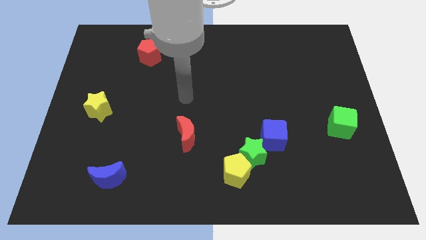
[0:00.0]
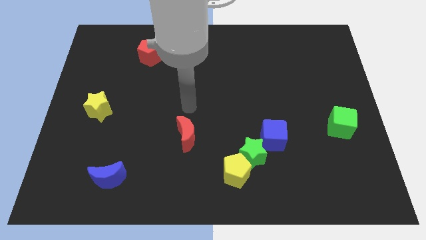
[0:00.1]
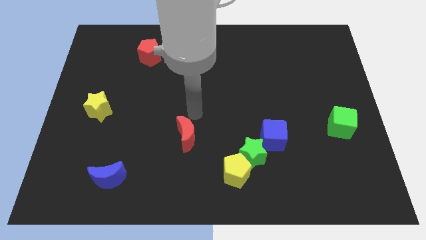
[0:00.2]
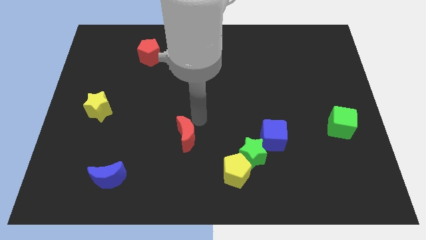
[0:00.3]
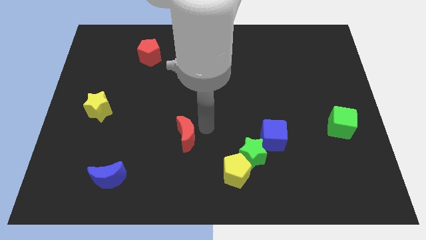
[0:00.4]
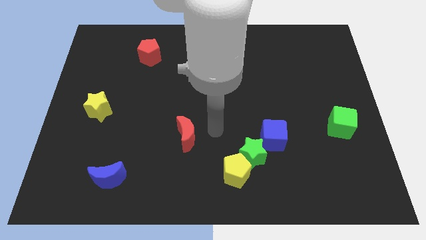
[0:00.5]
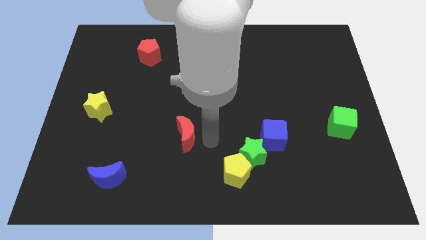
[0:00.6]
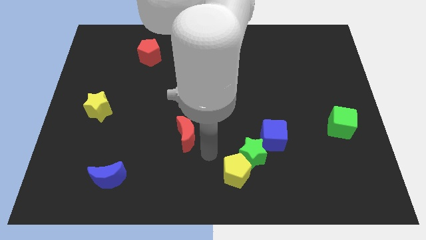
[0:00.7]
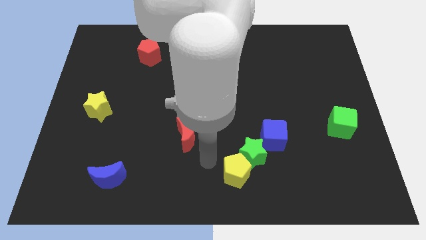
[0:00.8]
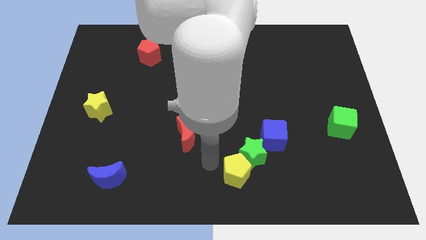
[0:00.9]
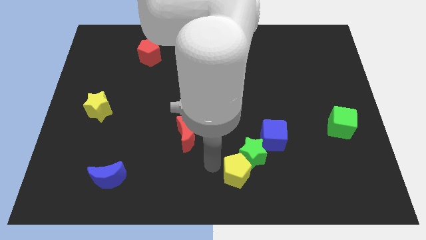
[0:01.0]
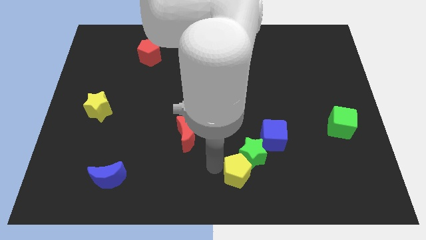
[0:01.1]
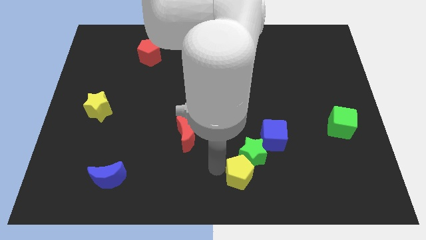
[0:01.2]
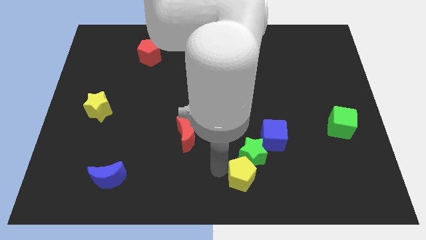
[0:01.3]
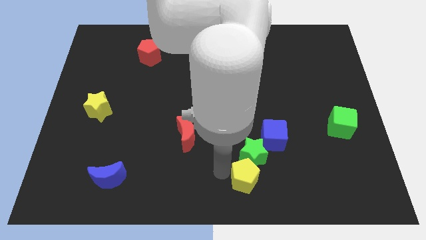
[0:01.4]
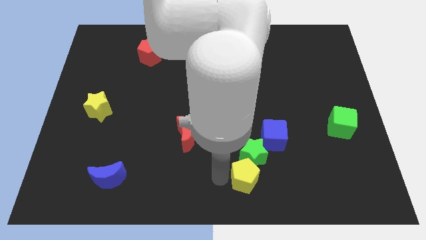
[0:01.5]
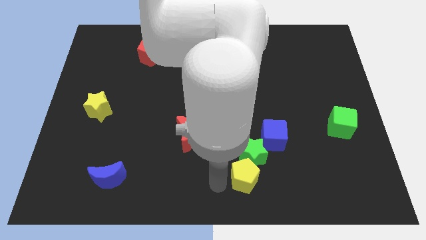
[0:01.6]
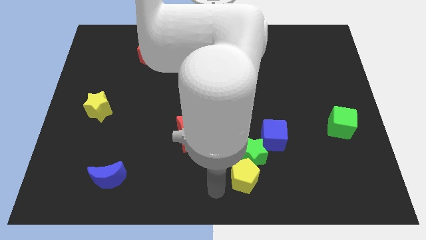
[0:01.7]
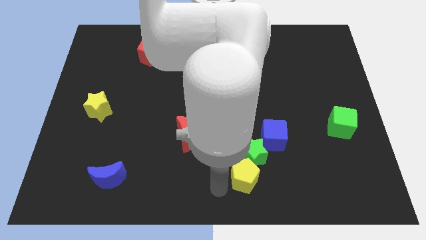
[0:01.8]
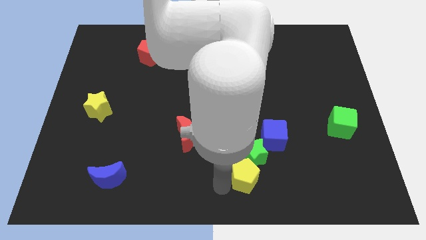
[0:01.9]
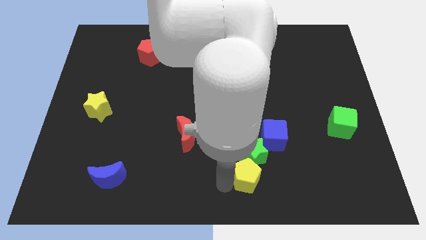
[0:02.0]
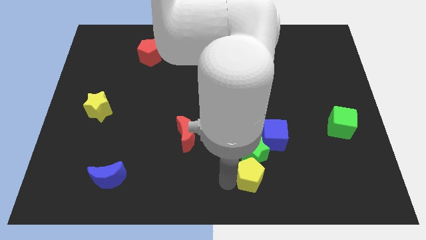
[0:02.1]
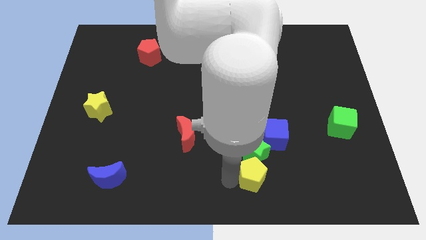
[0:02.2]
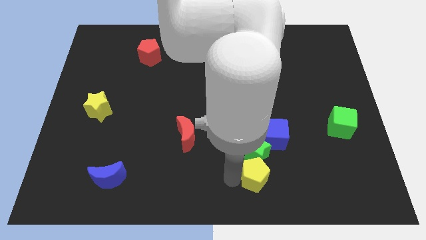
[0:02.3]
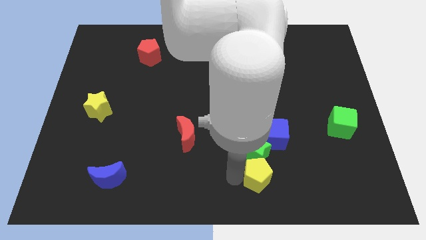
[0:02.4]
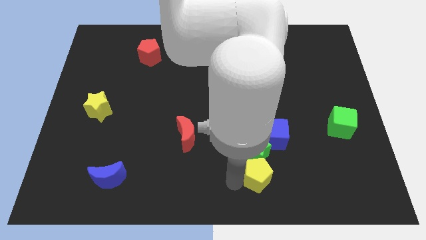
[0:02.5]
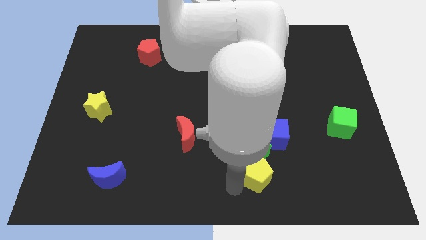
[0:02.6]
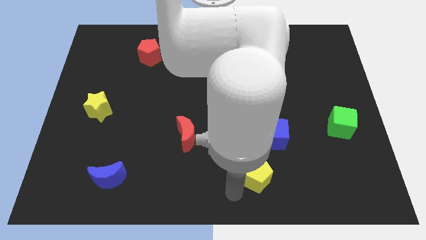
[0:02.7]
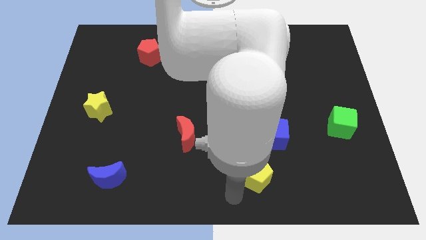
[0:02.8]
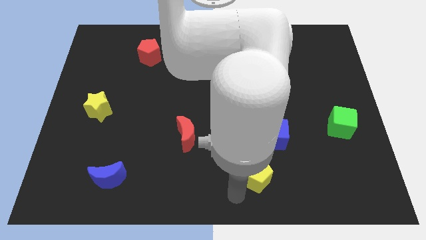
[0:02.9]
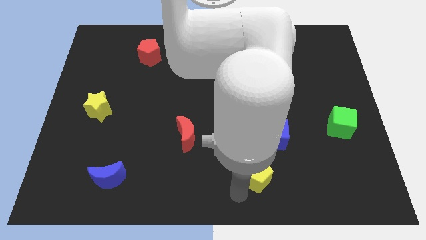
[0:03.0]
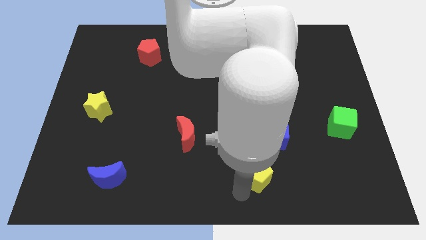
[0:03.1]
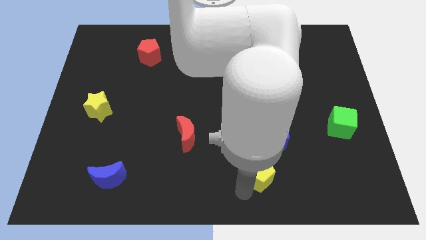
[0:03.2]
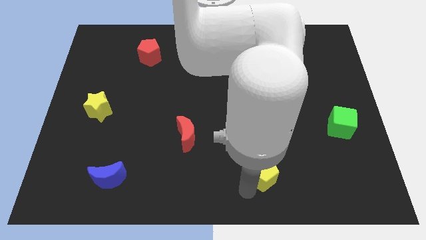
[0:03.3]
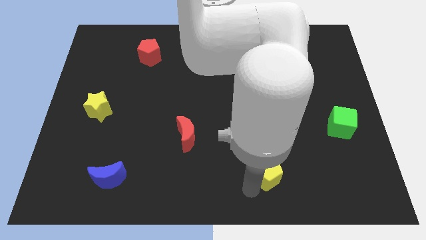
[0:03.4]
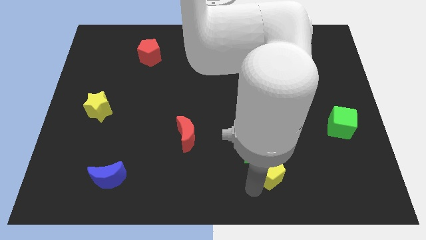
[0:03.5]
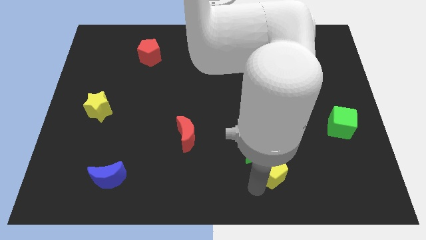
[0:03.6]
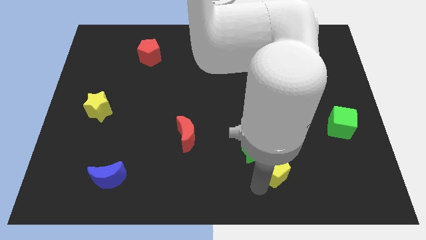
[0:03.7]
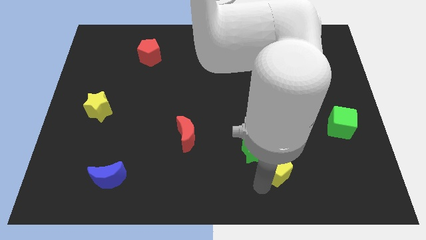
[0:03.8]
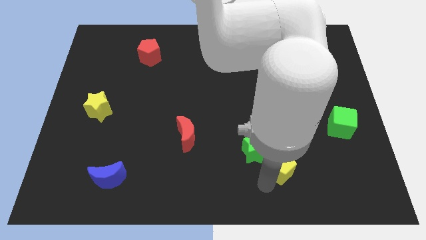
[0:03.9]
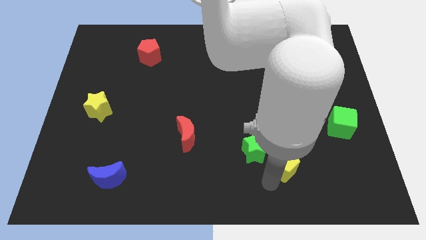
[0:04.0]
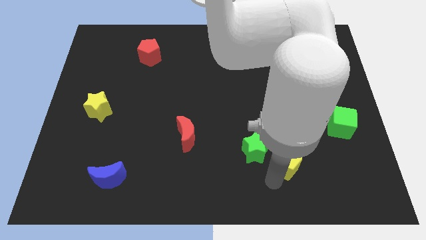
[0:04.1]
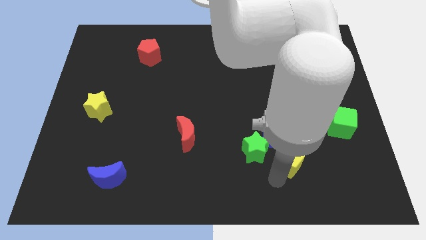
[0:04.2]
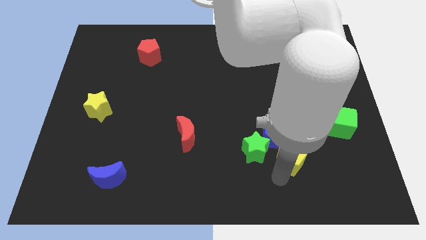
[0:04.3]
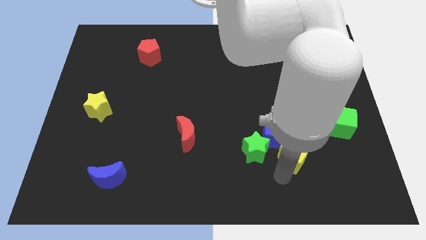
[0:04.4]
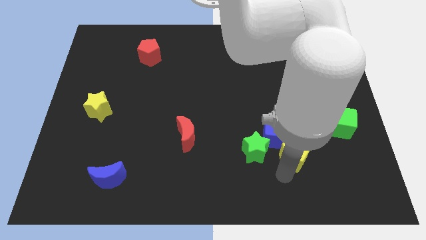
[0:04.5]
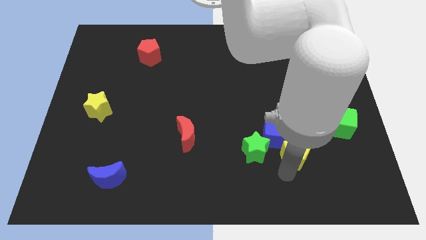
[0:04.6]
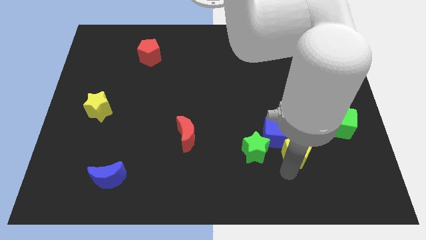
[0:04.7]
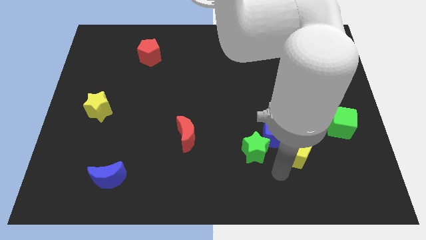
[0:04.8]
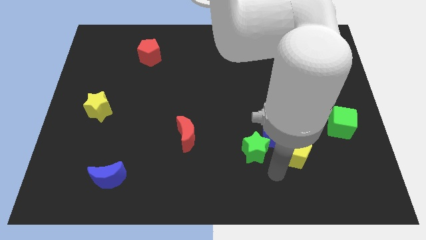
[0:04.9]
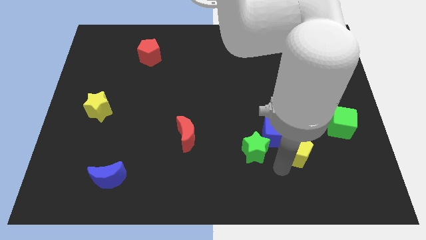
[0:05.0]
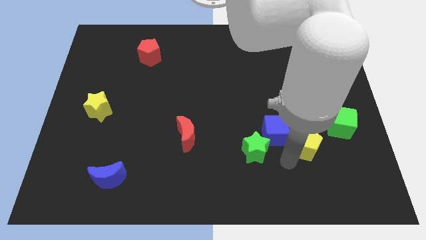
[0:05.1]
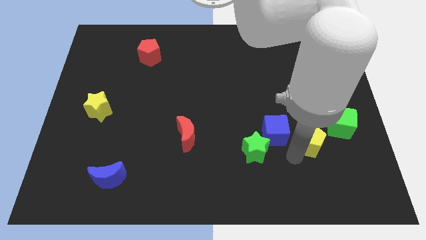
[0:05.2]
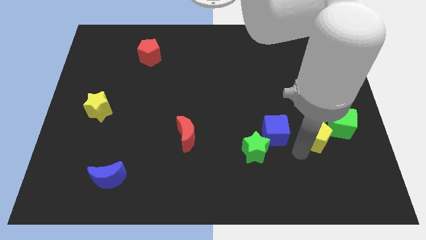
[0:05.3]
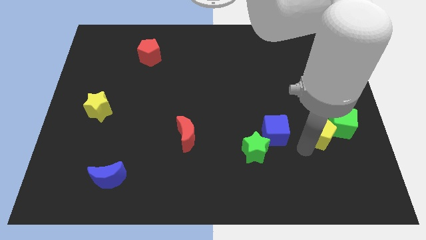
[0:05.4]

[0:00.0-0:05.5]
push the yellow pentagon to the green cube

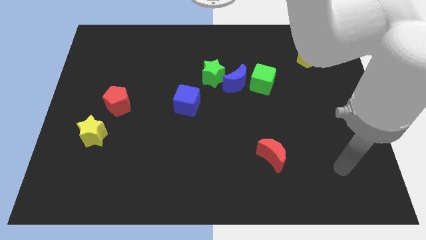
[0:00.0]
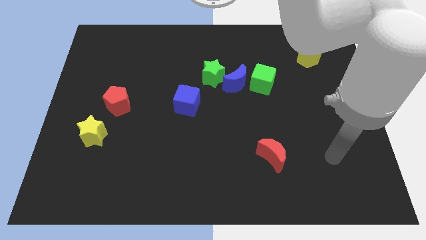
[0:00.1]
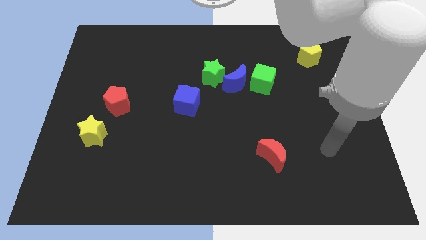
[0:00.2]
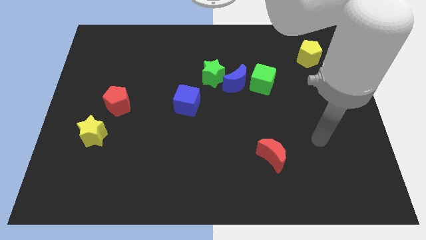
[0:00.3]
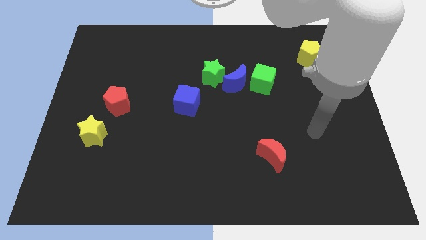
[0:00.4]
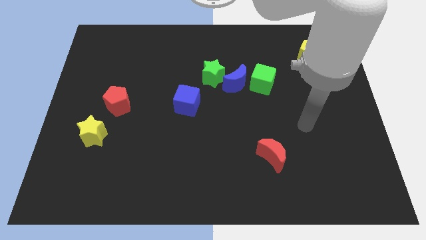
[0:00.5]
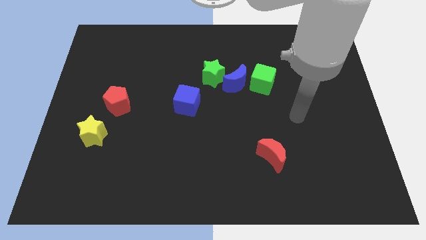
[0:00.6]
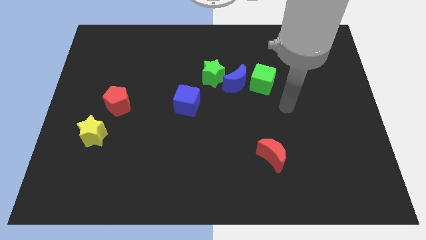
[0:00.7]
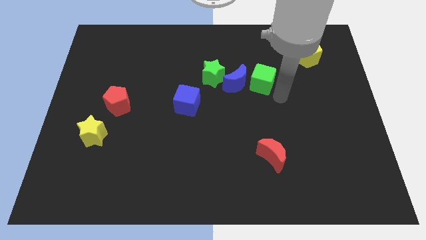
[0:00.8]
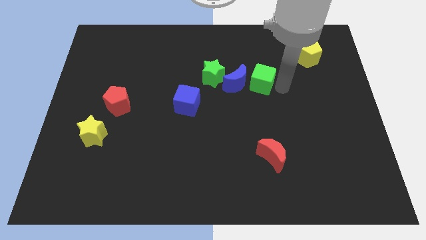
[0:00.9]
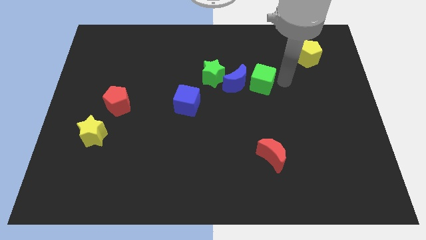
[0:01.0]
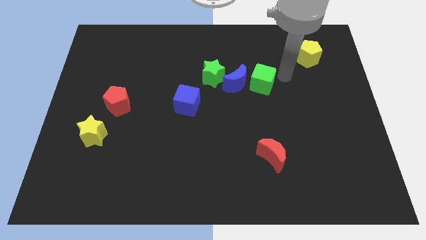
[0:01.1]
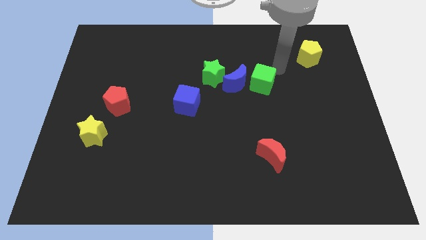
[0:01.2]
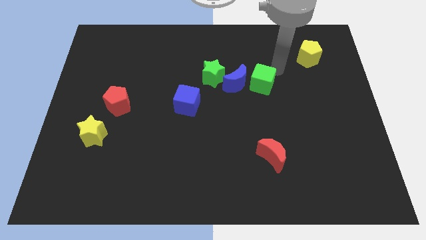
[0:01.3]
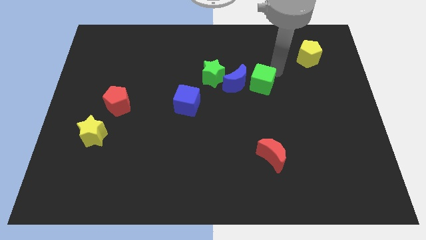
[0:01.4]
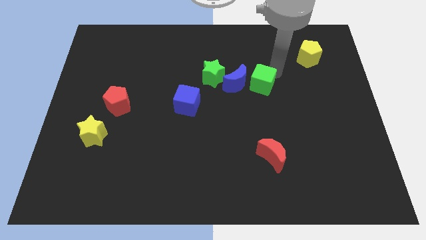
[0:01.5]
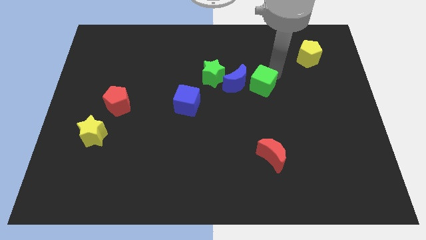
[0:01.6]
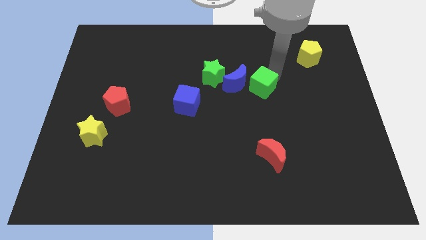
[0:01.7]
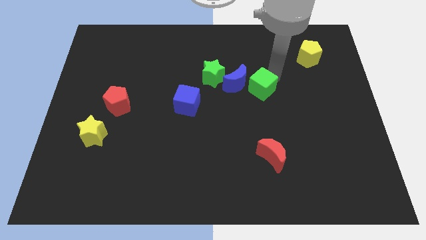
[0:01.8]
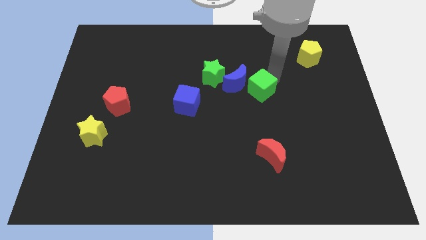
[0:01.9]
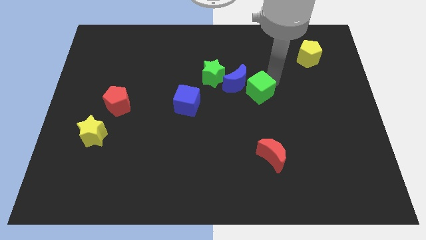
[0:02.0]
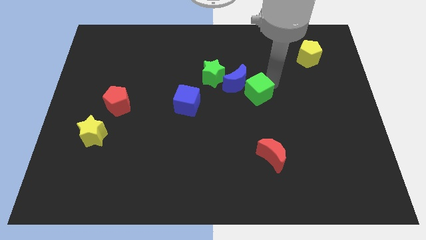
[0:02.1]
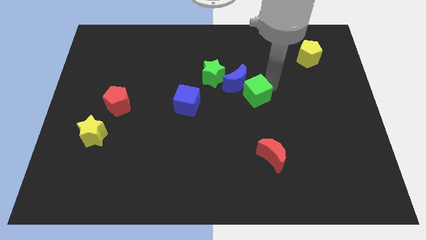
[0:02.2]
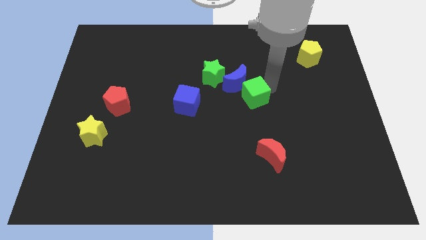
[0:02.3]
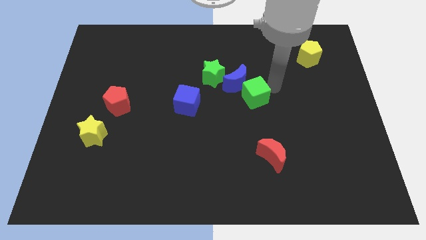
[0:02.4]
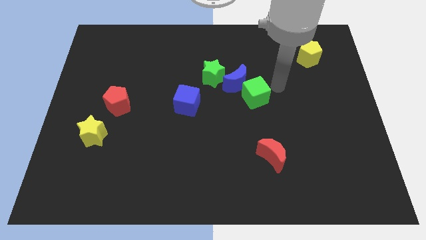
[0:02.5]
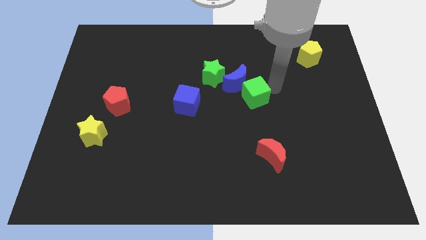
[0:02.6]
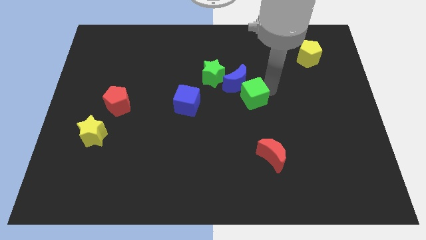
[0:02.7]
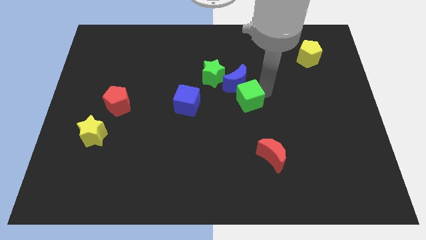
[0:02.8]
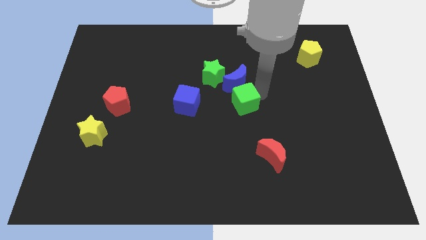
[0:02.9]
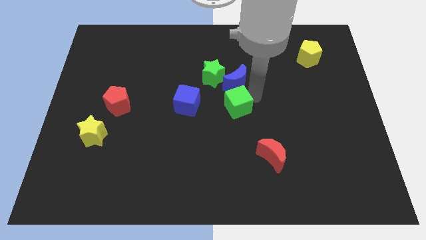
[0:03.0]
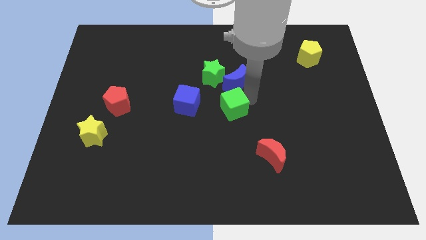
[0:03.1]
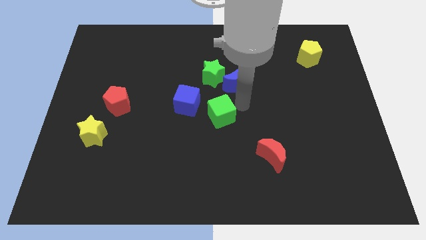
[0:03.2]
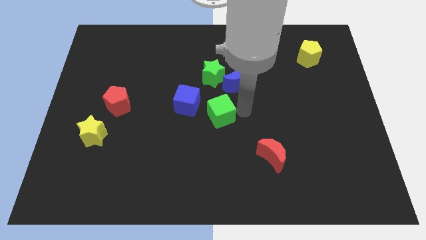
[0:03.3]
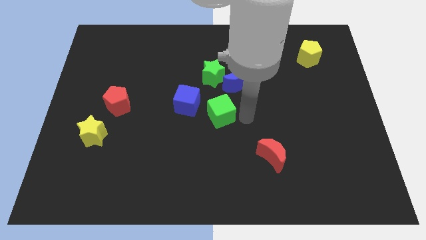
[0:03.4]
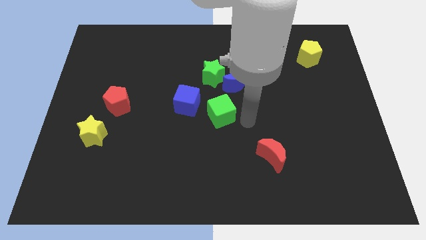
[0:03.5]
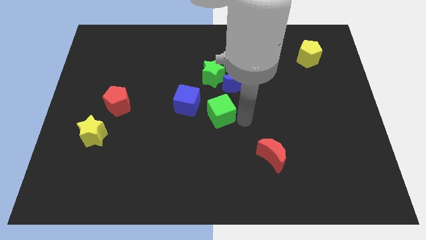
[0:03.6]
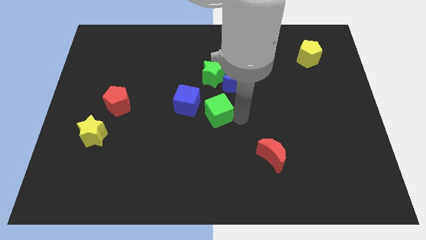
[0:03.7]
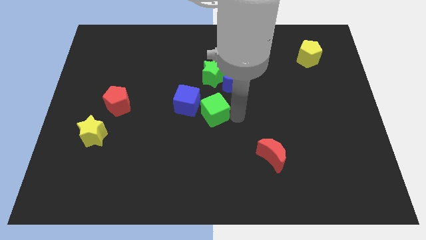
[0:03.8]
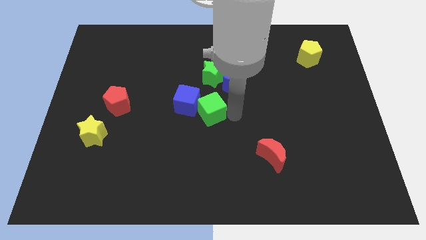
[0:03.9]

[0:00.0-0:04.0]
slide the green cube next to the blue cube
